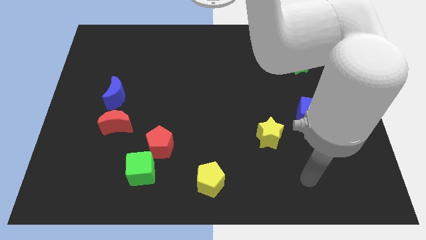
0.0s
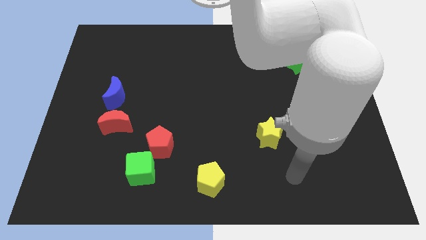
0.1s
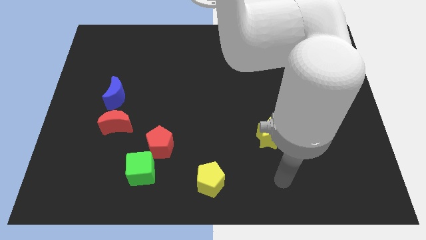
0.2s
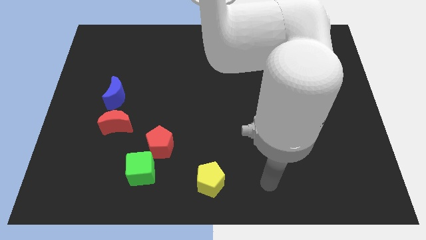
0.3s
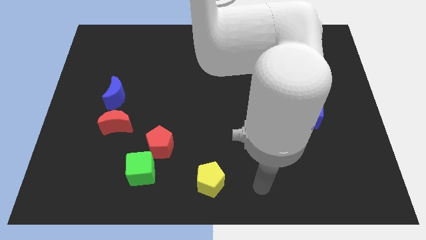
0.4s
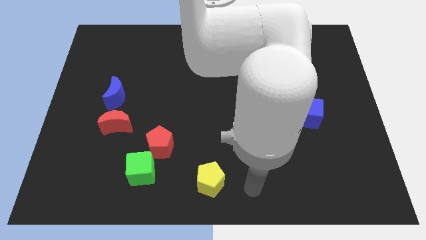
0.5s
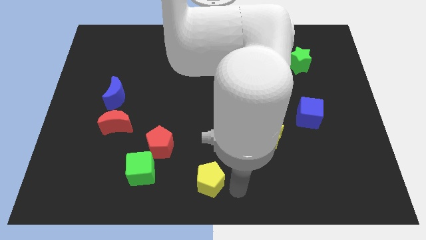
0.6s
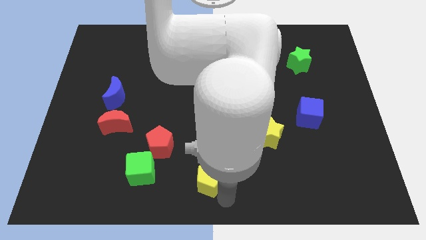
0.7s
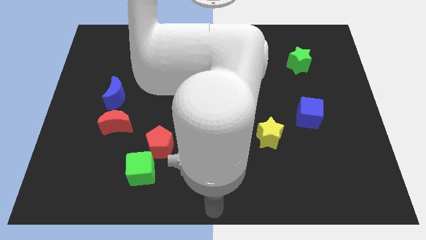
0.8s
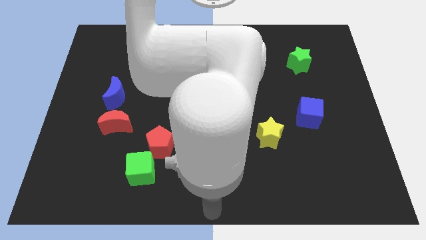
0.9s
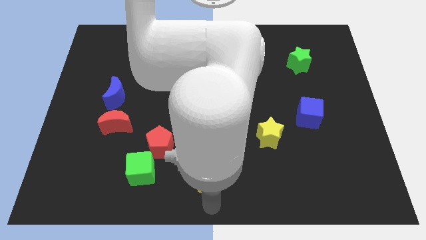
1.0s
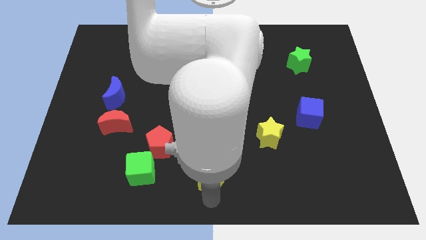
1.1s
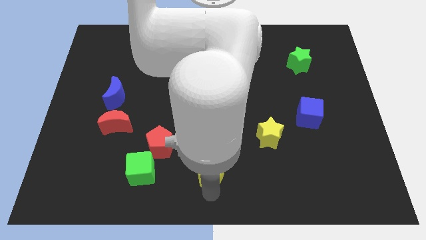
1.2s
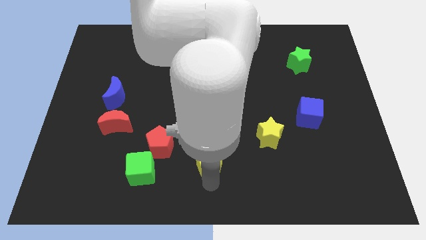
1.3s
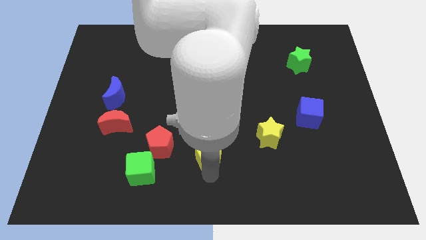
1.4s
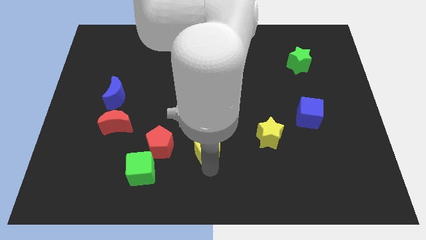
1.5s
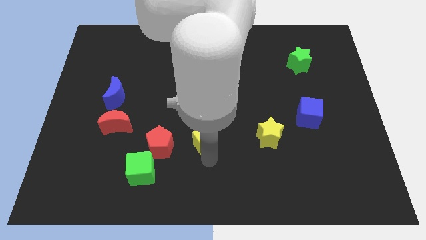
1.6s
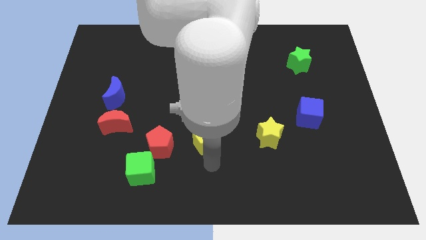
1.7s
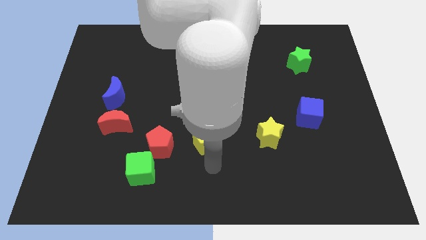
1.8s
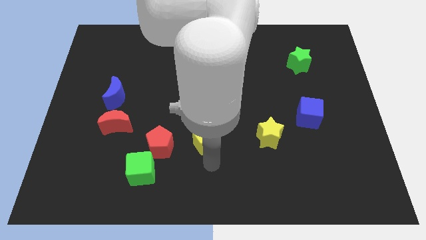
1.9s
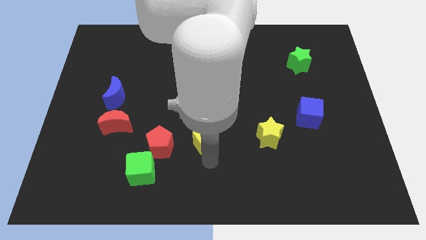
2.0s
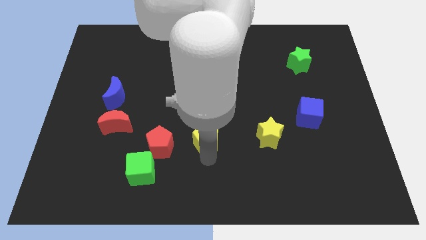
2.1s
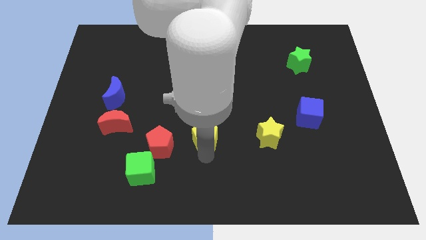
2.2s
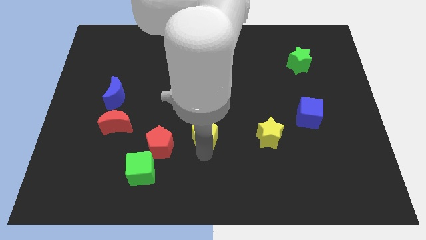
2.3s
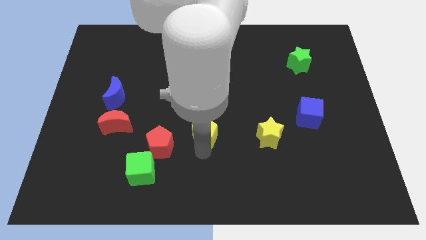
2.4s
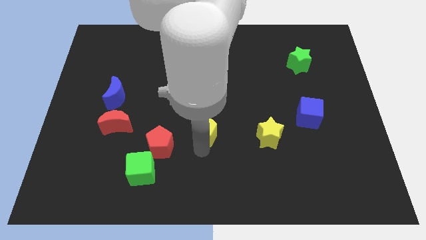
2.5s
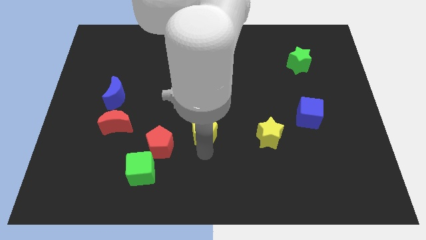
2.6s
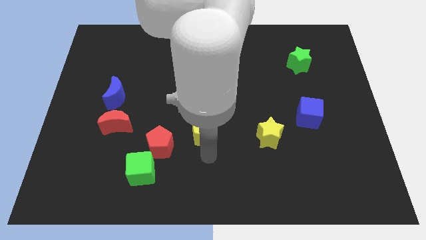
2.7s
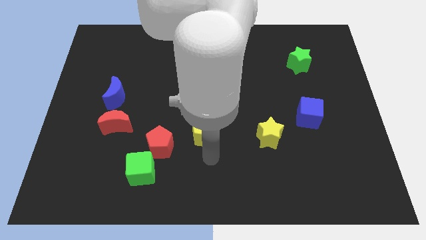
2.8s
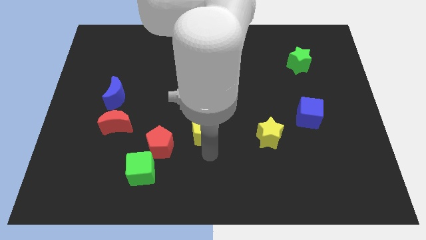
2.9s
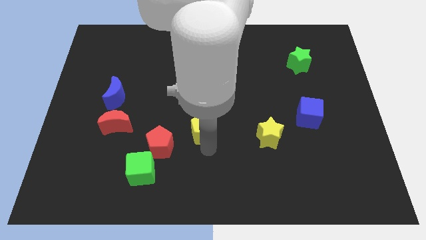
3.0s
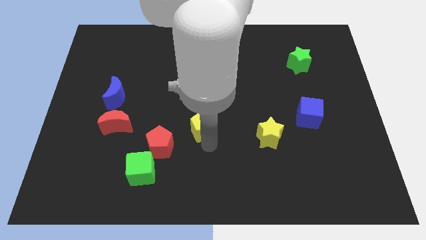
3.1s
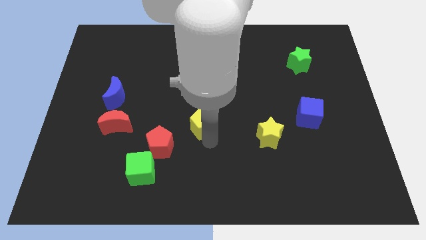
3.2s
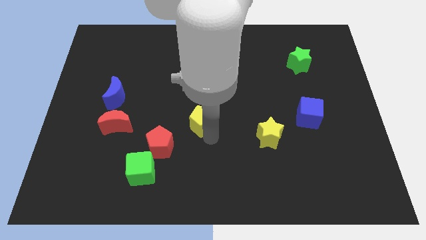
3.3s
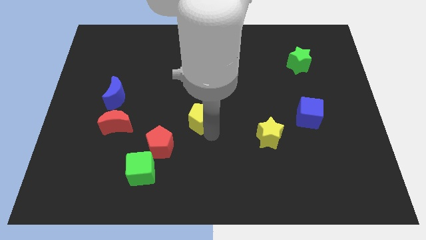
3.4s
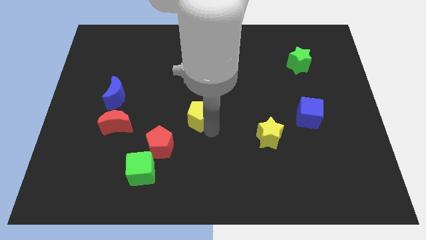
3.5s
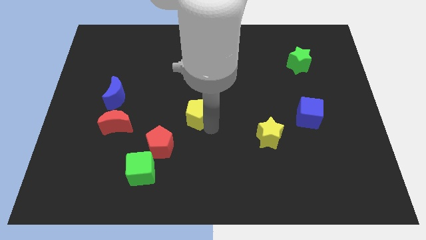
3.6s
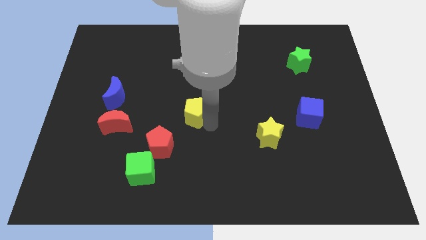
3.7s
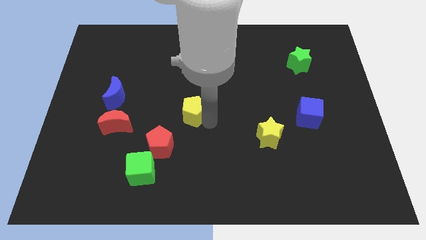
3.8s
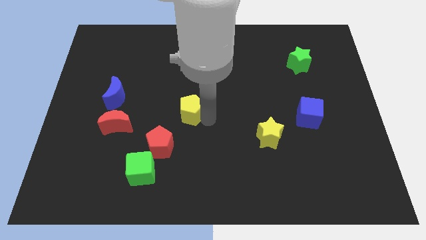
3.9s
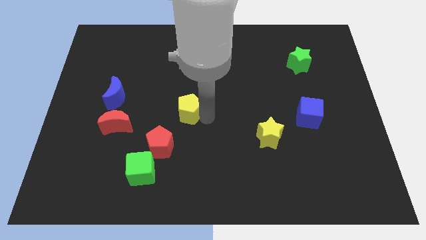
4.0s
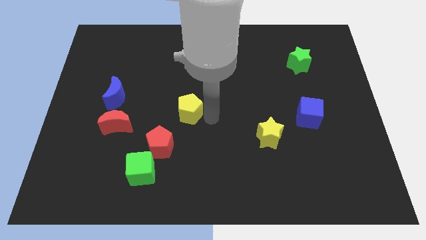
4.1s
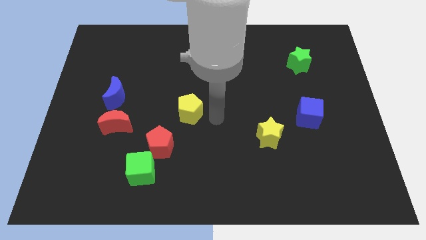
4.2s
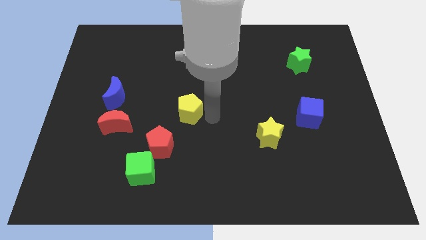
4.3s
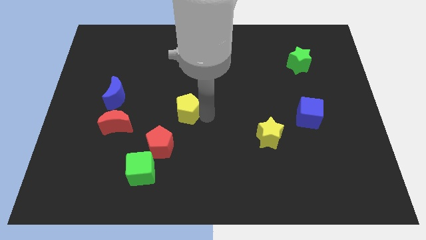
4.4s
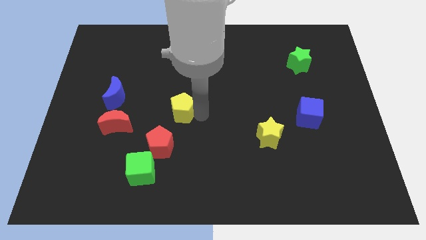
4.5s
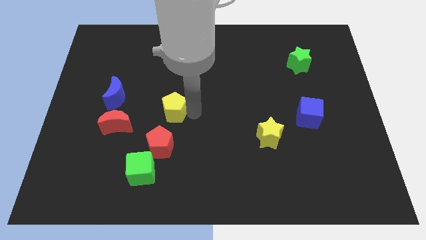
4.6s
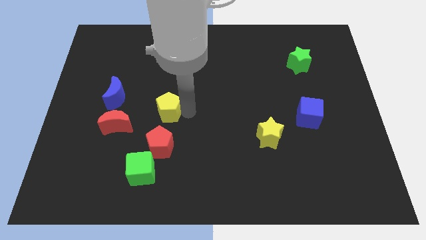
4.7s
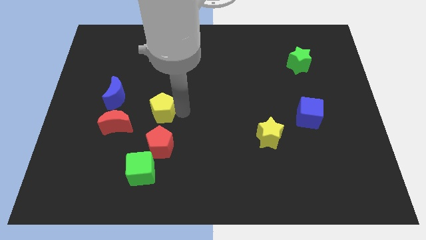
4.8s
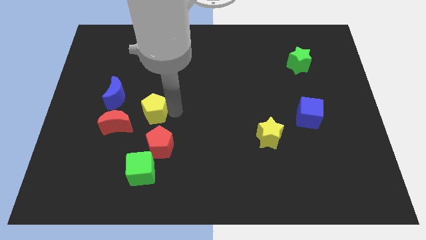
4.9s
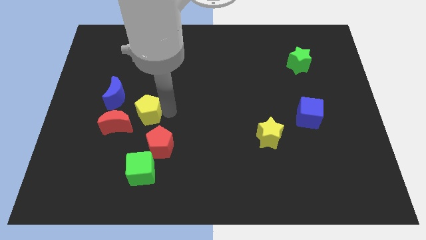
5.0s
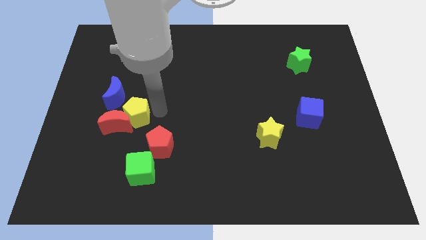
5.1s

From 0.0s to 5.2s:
push the yellow pentagon to the red moon

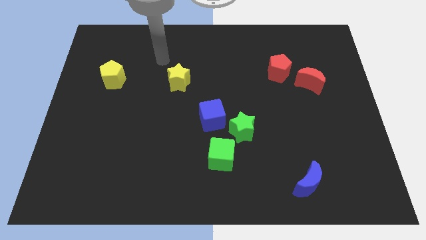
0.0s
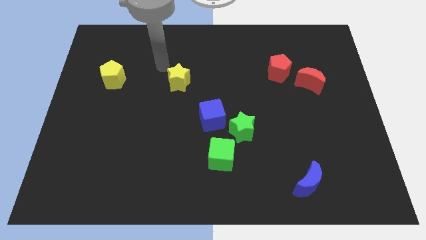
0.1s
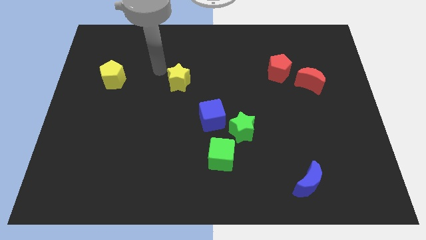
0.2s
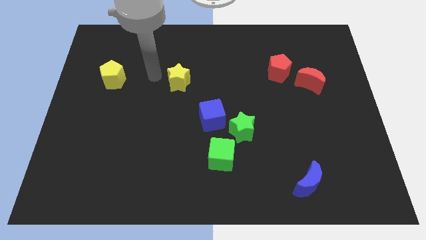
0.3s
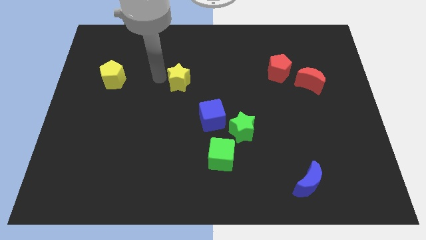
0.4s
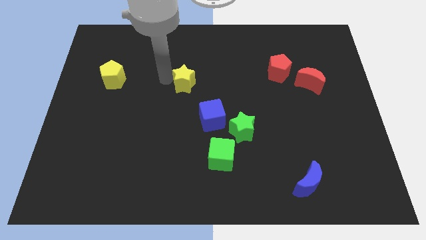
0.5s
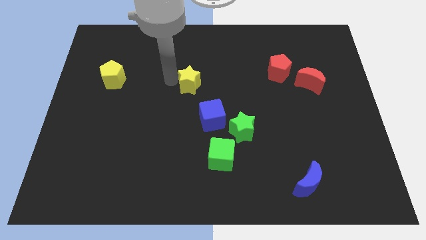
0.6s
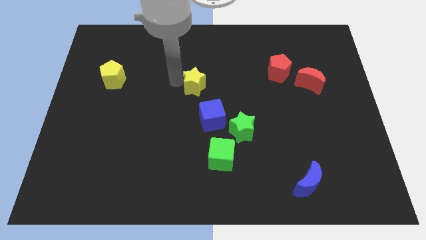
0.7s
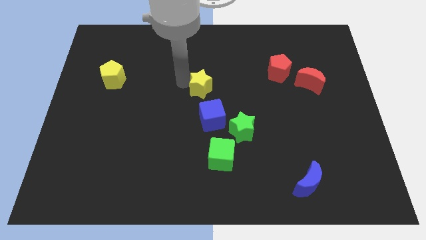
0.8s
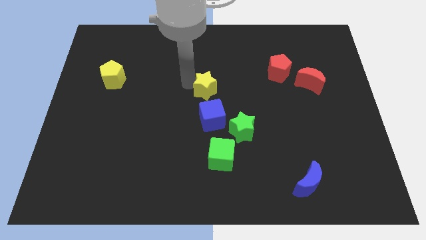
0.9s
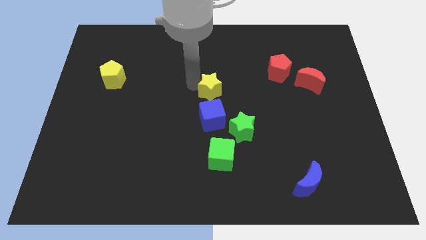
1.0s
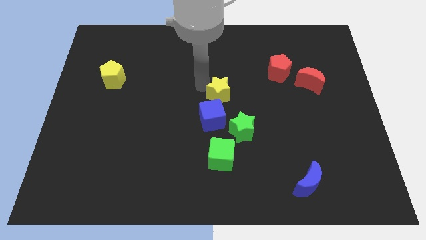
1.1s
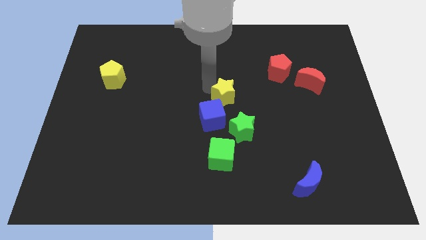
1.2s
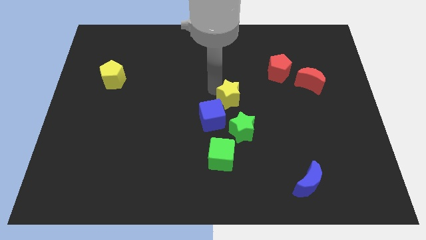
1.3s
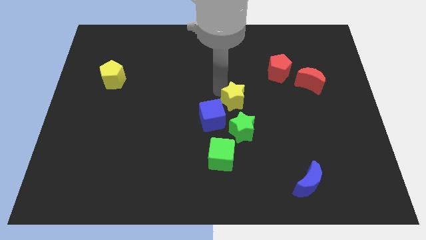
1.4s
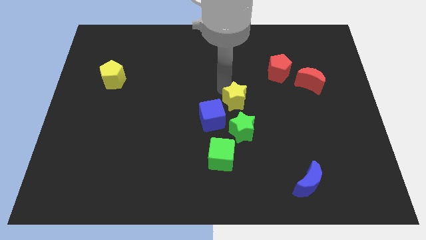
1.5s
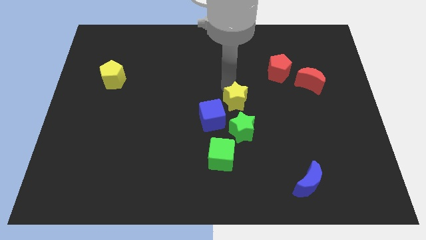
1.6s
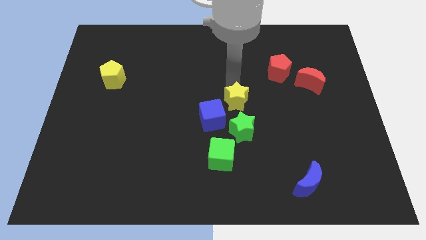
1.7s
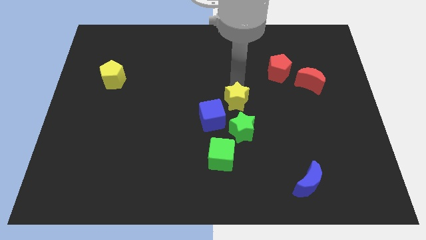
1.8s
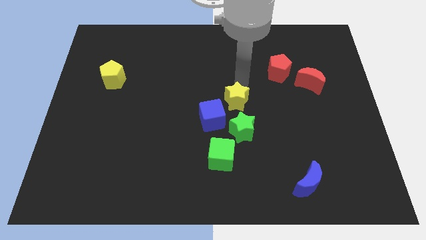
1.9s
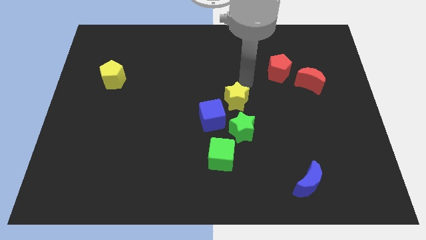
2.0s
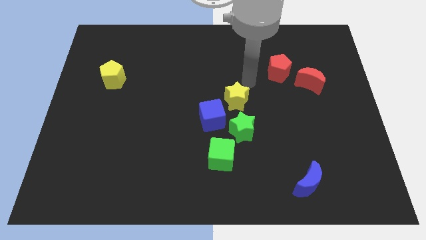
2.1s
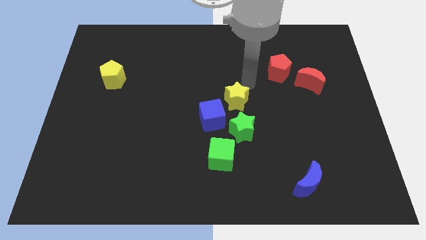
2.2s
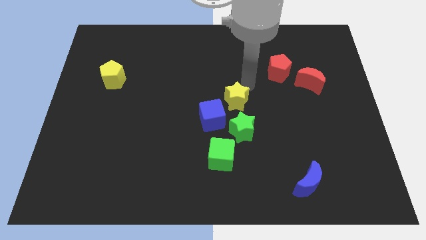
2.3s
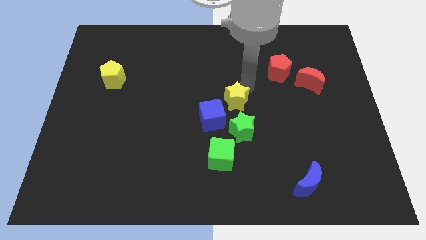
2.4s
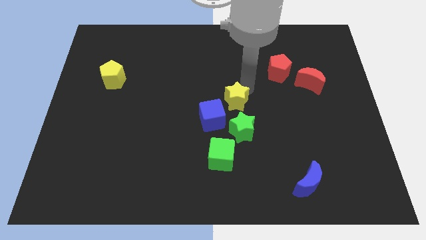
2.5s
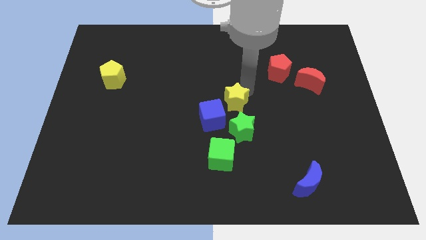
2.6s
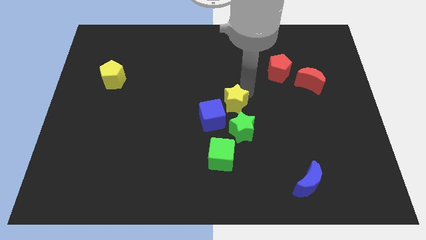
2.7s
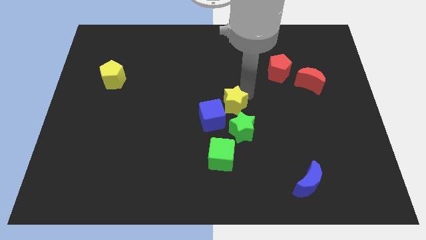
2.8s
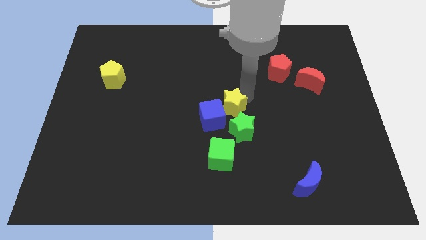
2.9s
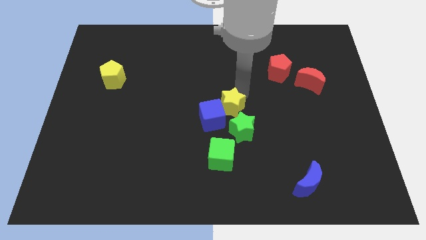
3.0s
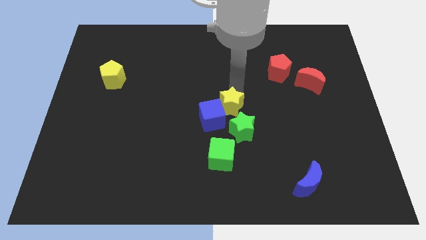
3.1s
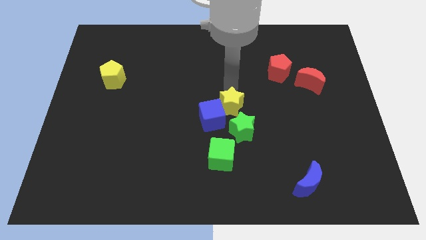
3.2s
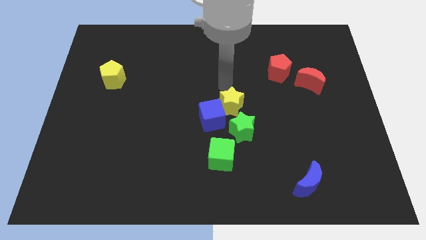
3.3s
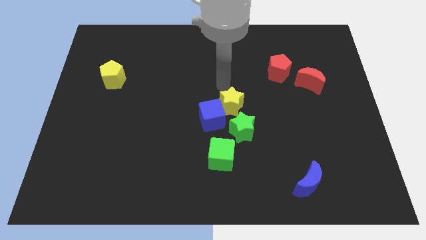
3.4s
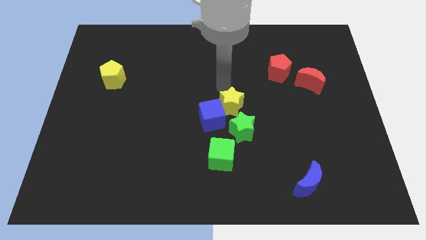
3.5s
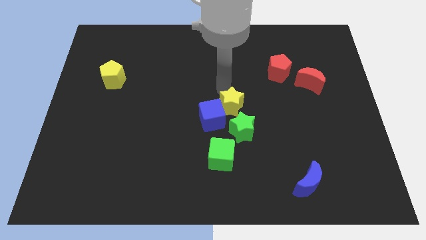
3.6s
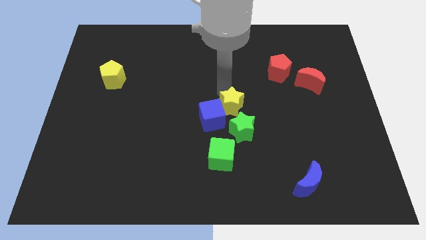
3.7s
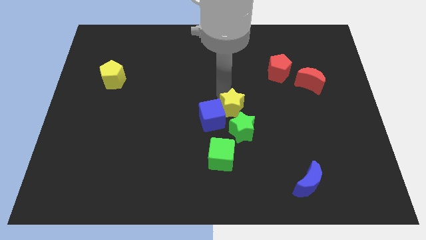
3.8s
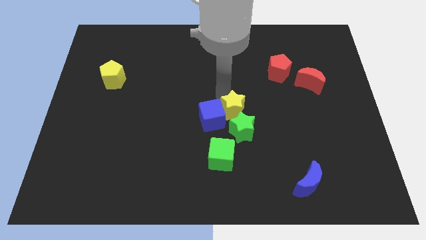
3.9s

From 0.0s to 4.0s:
put the yellow star next to the green star
